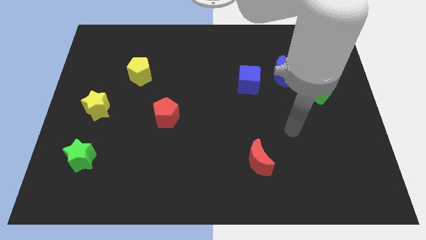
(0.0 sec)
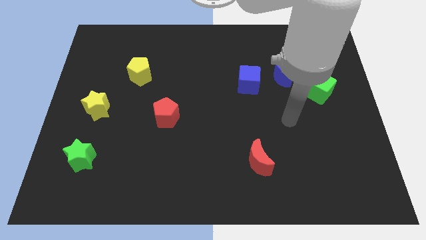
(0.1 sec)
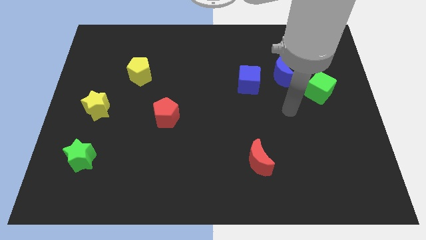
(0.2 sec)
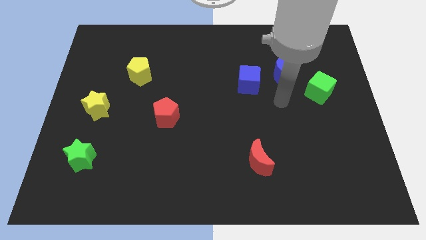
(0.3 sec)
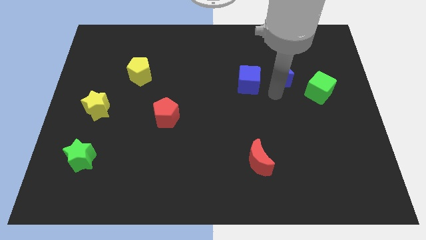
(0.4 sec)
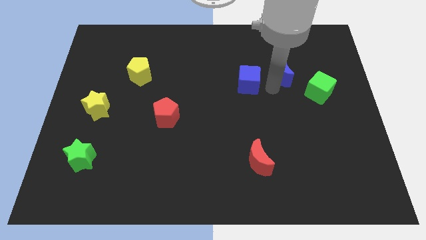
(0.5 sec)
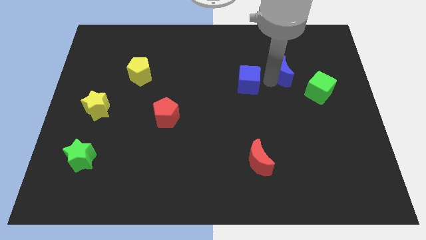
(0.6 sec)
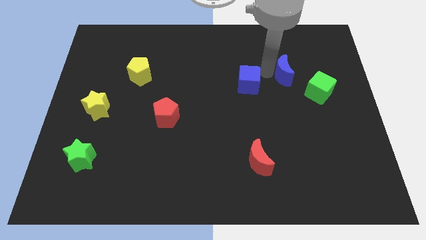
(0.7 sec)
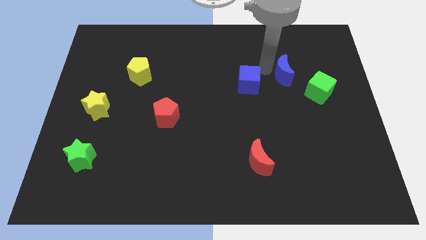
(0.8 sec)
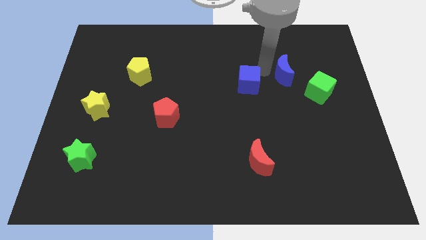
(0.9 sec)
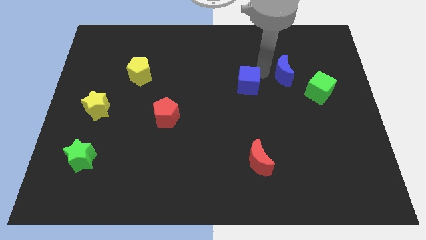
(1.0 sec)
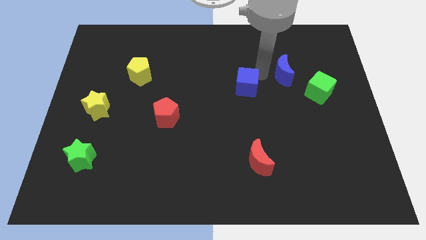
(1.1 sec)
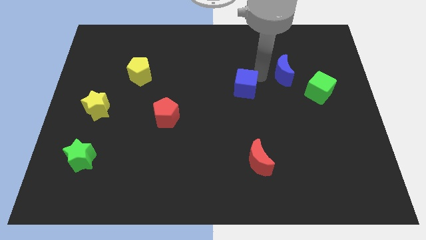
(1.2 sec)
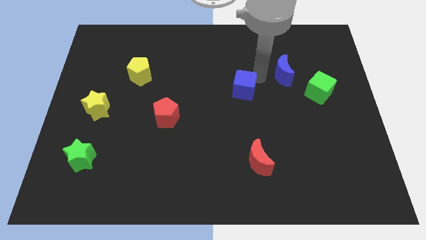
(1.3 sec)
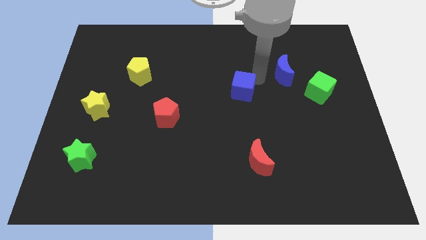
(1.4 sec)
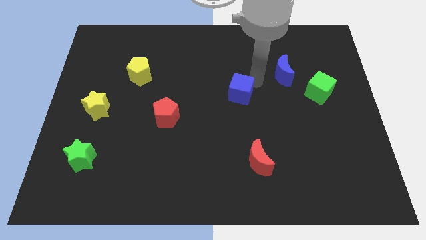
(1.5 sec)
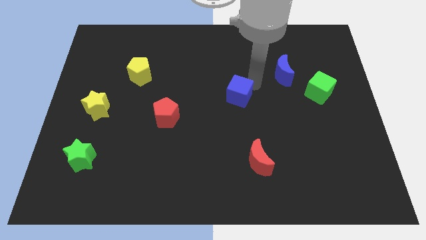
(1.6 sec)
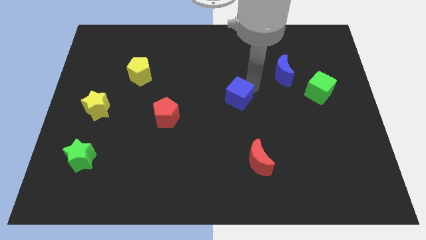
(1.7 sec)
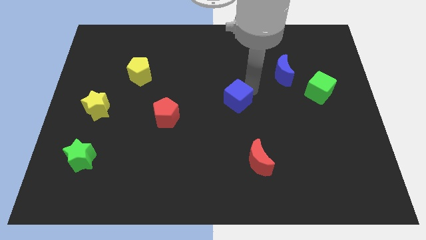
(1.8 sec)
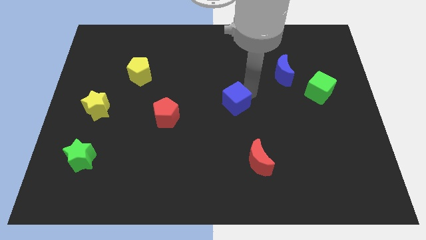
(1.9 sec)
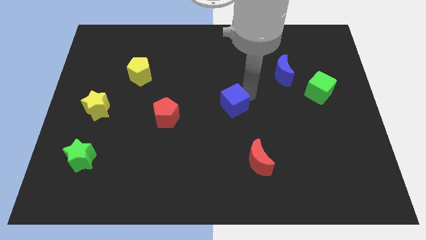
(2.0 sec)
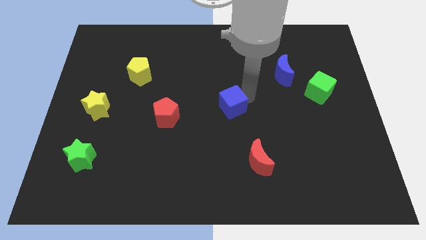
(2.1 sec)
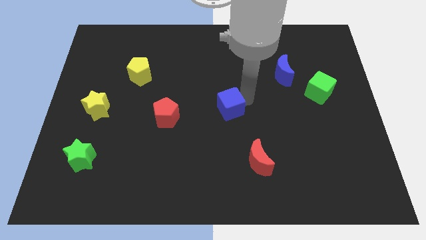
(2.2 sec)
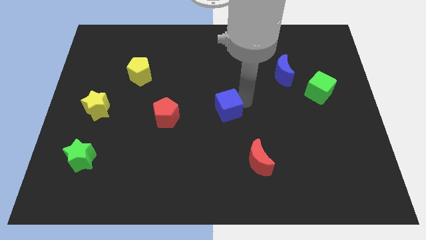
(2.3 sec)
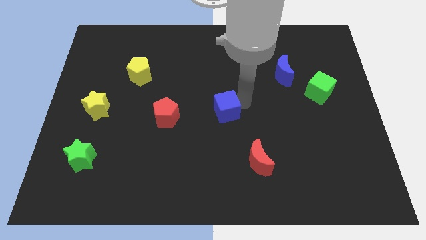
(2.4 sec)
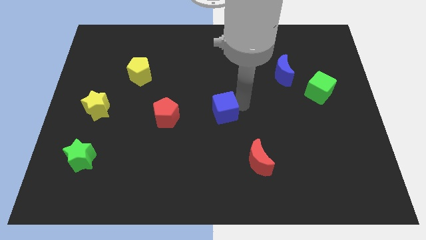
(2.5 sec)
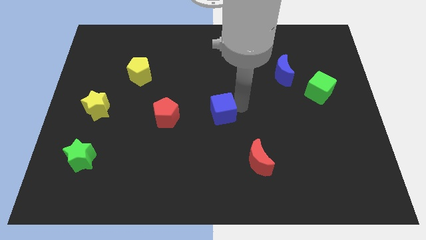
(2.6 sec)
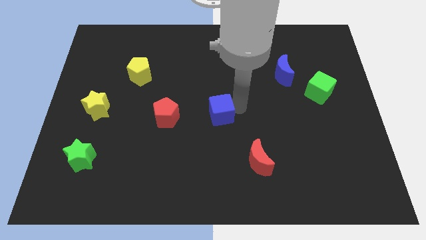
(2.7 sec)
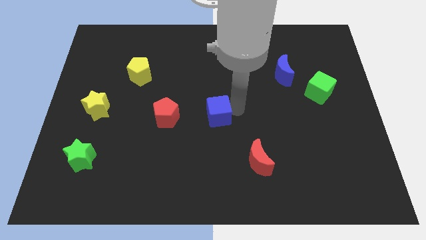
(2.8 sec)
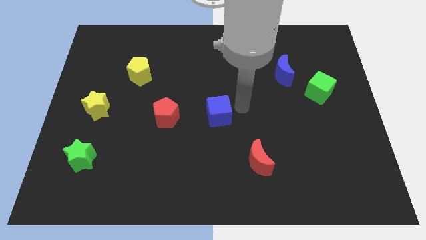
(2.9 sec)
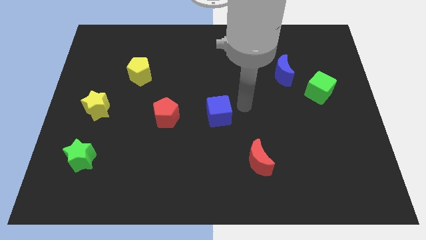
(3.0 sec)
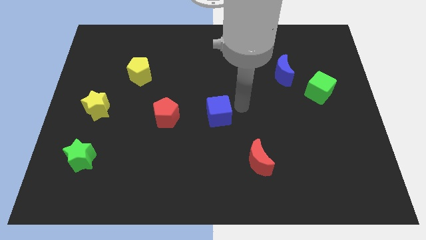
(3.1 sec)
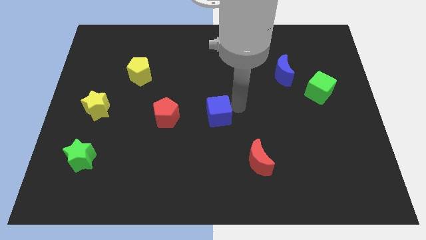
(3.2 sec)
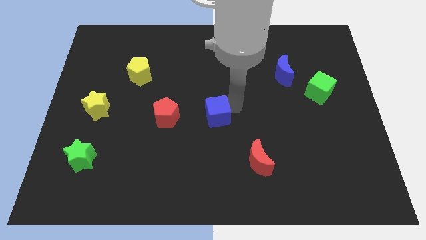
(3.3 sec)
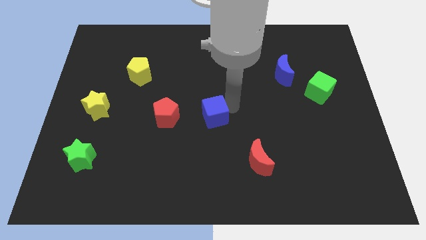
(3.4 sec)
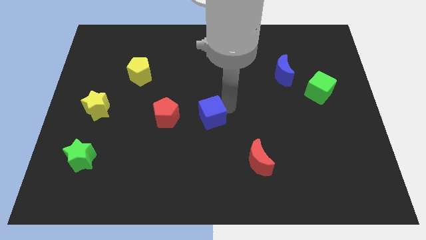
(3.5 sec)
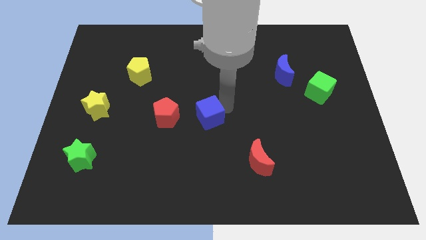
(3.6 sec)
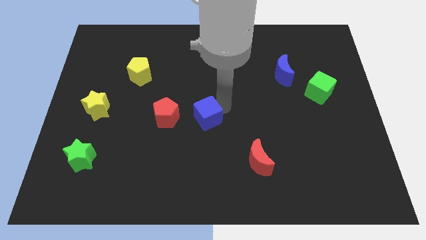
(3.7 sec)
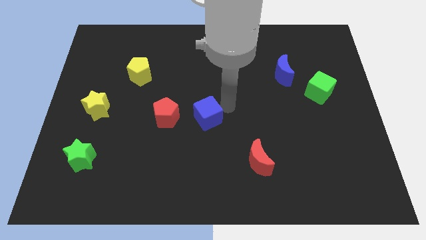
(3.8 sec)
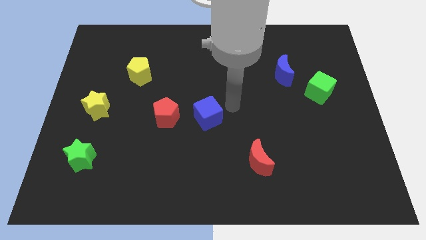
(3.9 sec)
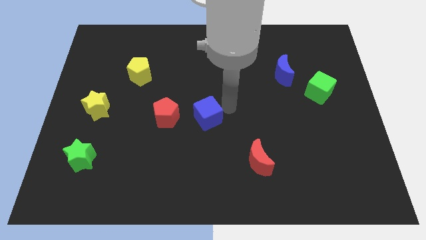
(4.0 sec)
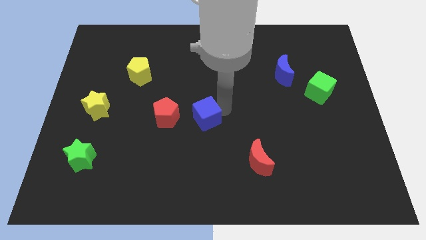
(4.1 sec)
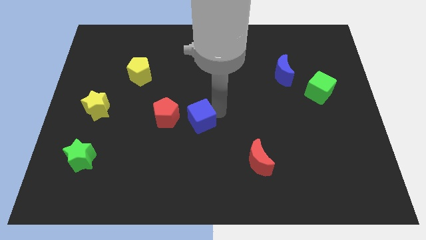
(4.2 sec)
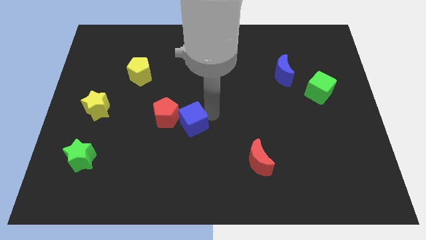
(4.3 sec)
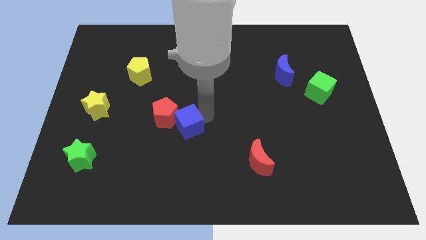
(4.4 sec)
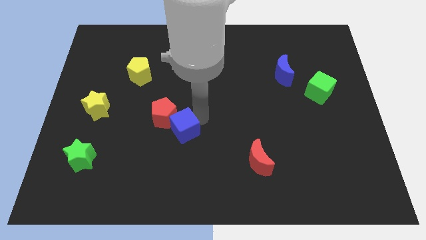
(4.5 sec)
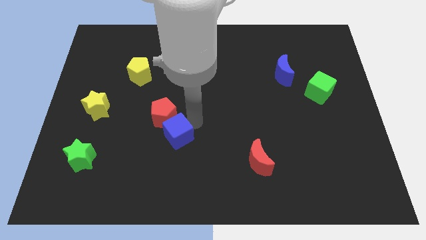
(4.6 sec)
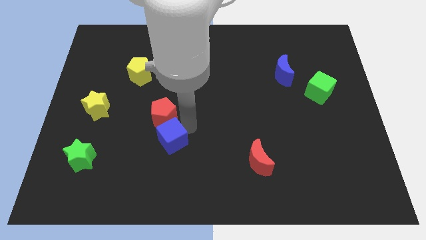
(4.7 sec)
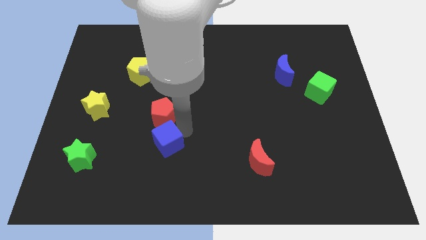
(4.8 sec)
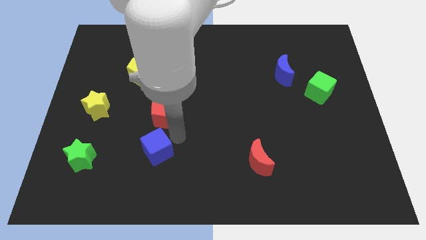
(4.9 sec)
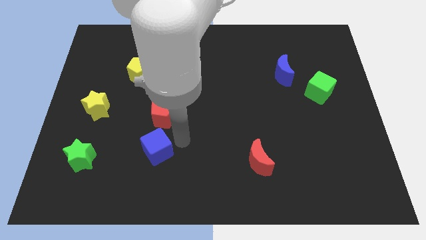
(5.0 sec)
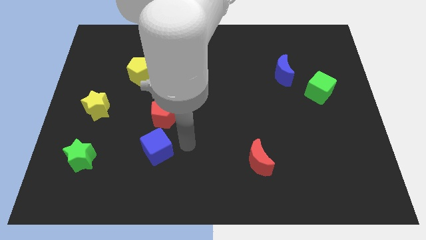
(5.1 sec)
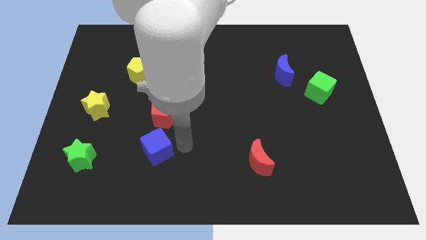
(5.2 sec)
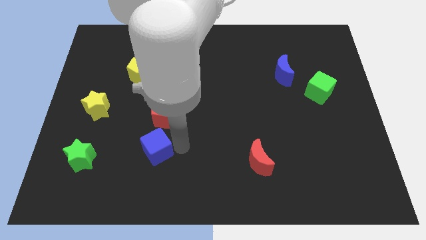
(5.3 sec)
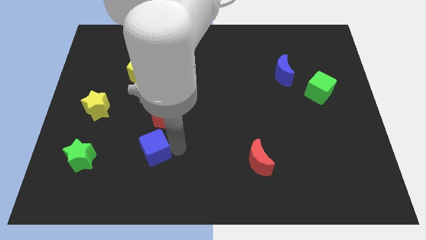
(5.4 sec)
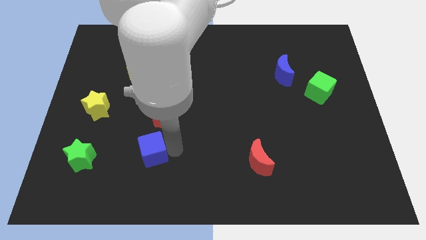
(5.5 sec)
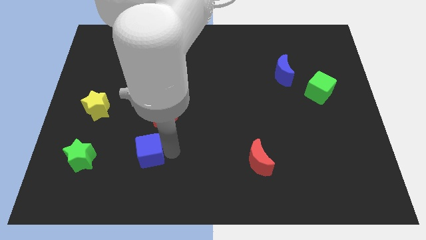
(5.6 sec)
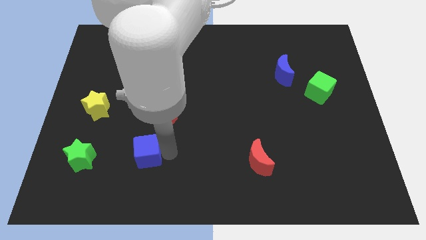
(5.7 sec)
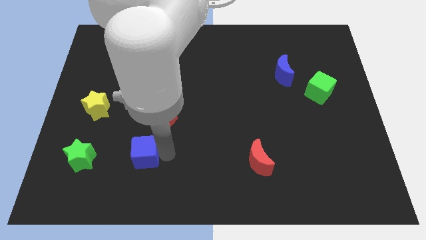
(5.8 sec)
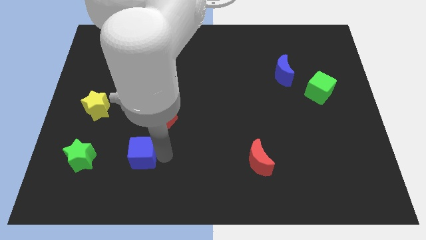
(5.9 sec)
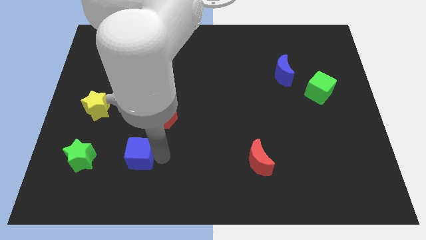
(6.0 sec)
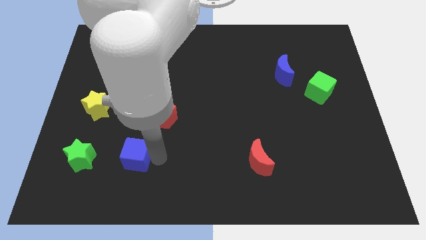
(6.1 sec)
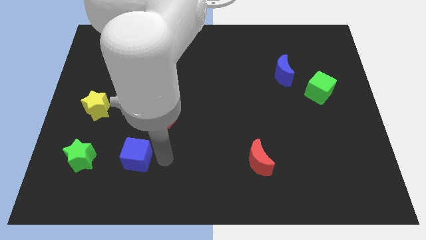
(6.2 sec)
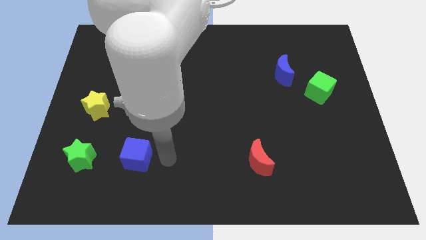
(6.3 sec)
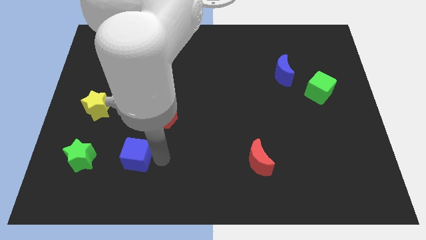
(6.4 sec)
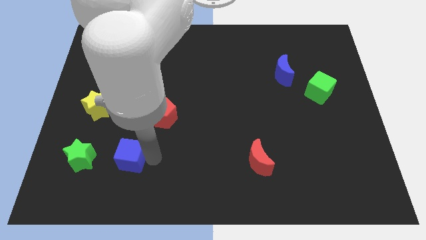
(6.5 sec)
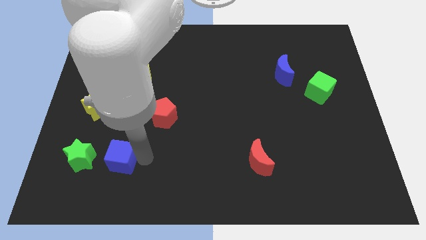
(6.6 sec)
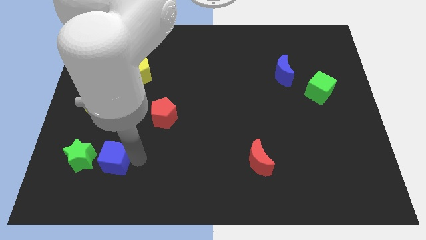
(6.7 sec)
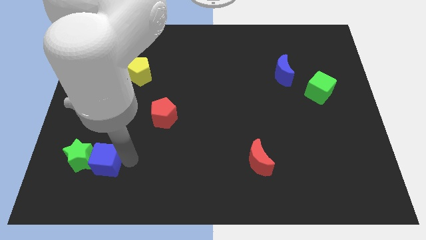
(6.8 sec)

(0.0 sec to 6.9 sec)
push the blue cube towards the green star
